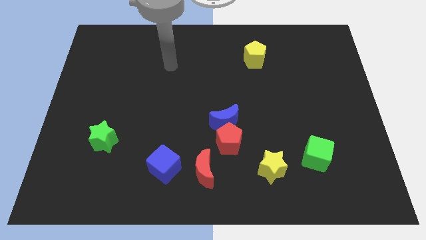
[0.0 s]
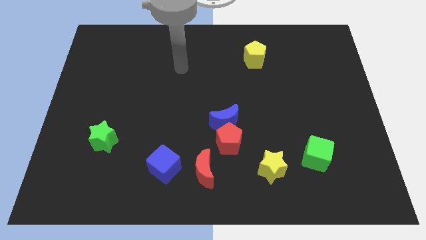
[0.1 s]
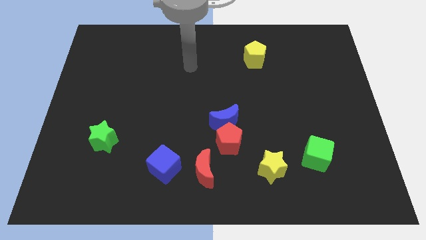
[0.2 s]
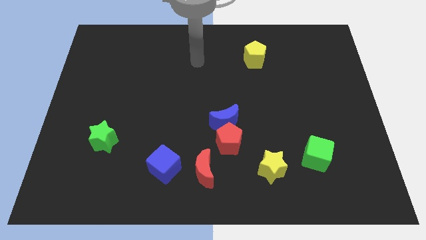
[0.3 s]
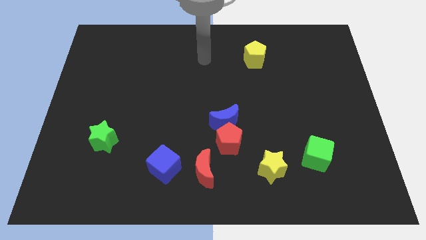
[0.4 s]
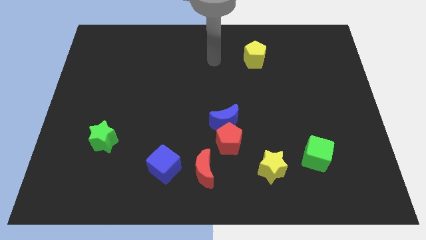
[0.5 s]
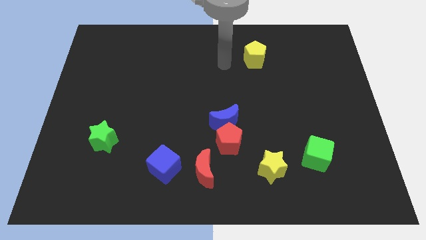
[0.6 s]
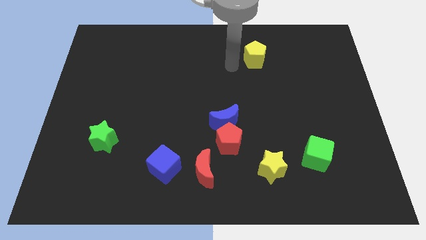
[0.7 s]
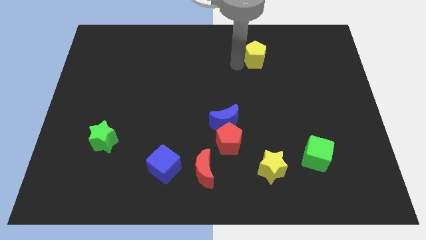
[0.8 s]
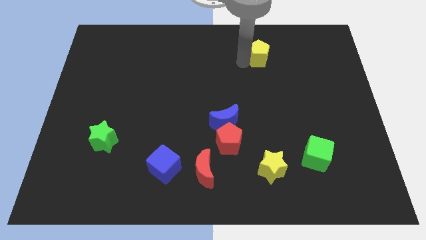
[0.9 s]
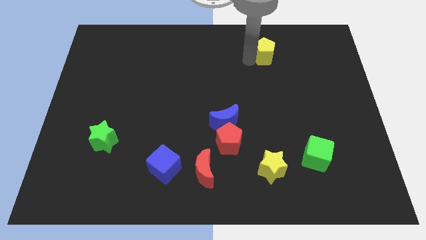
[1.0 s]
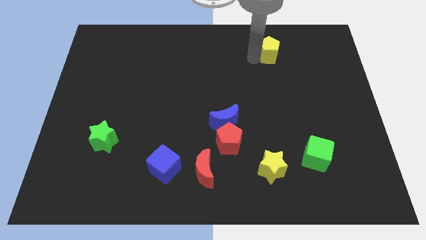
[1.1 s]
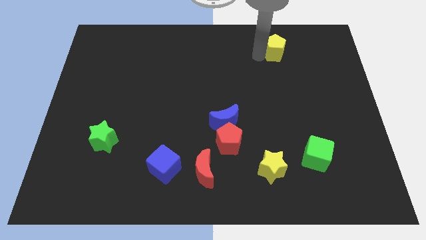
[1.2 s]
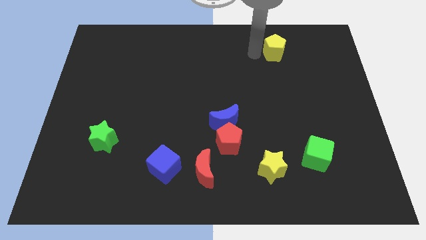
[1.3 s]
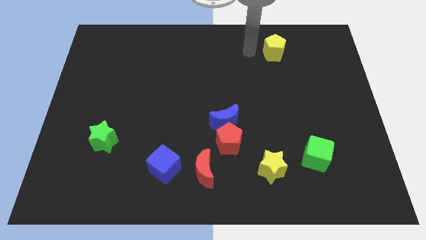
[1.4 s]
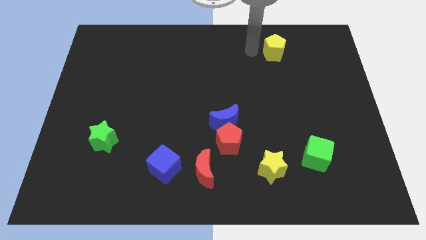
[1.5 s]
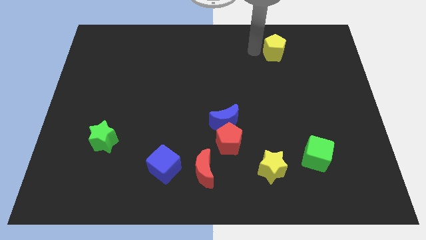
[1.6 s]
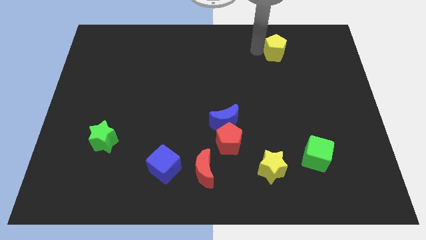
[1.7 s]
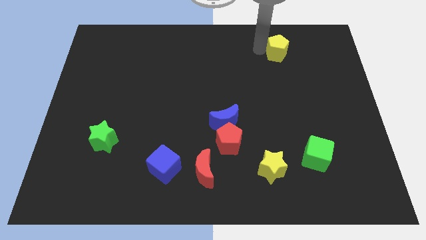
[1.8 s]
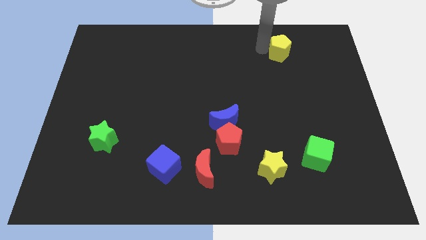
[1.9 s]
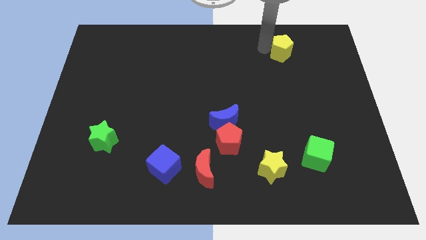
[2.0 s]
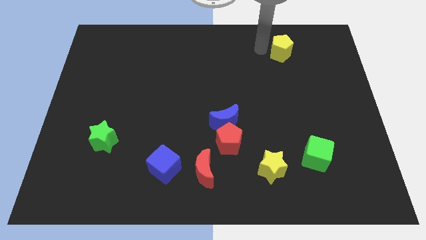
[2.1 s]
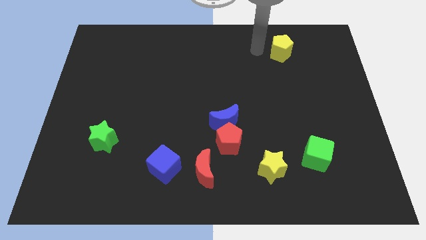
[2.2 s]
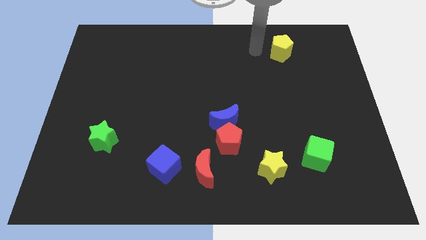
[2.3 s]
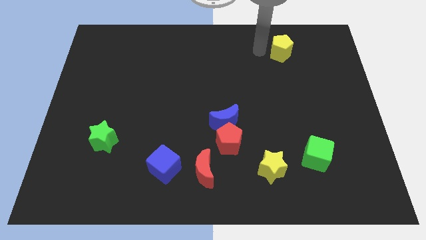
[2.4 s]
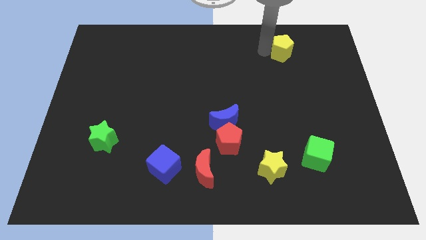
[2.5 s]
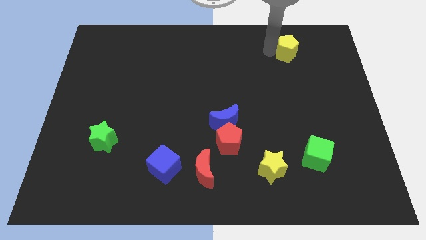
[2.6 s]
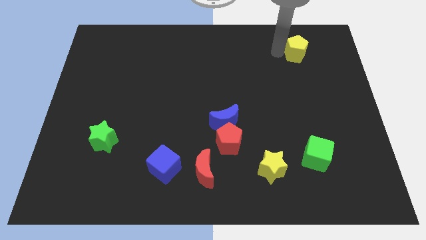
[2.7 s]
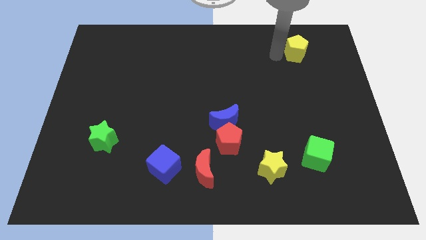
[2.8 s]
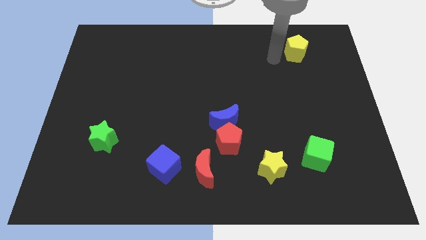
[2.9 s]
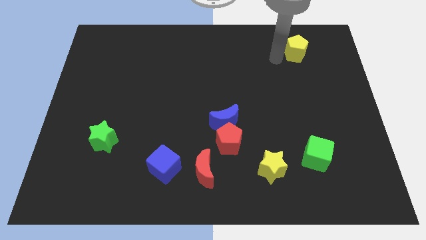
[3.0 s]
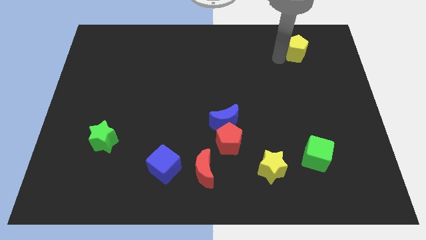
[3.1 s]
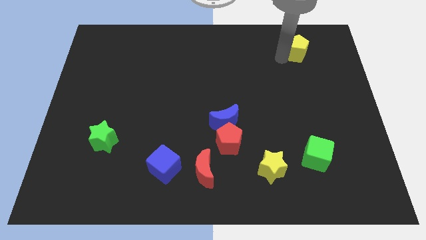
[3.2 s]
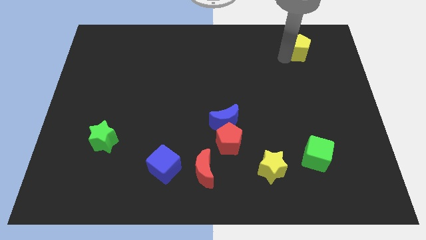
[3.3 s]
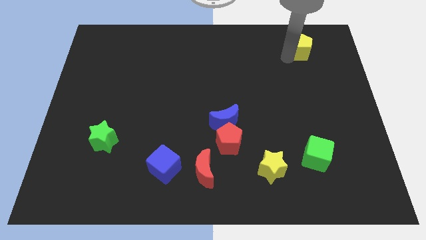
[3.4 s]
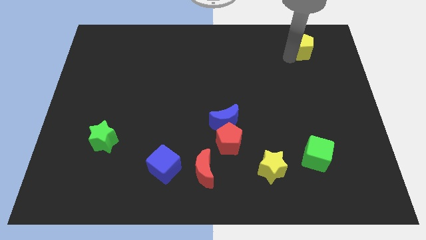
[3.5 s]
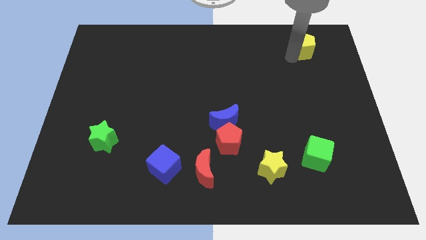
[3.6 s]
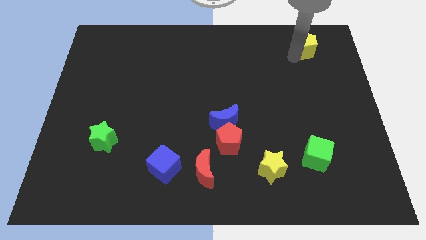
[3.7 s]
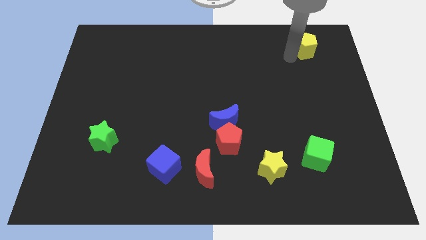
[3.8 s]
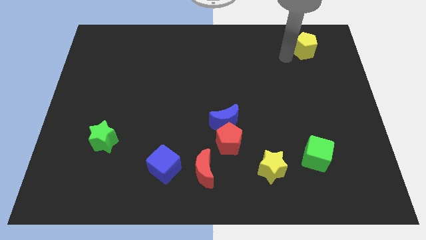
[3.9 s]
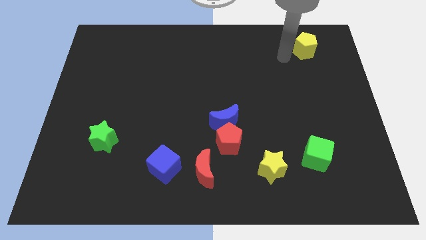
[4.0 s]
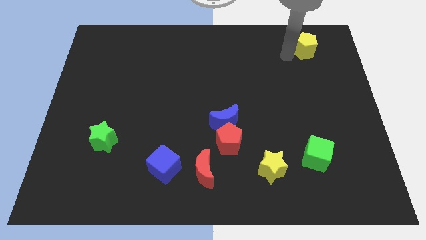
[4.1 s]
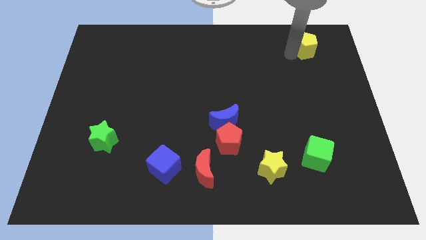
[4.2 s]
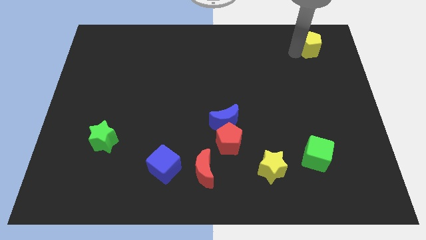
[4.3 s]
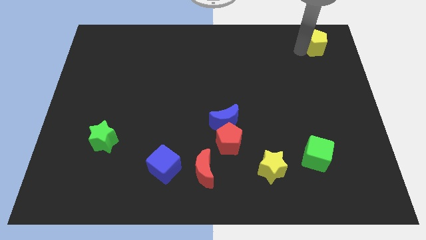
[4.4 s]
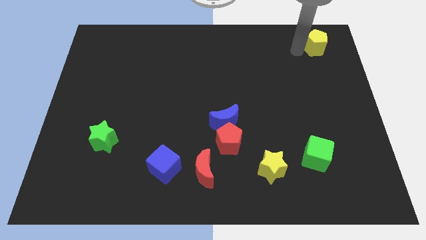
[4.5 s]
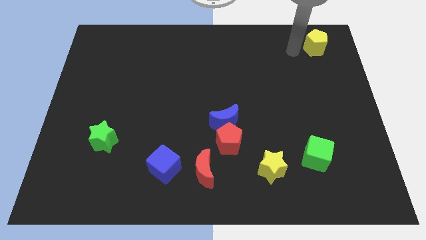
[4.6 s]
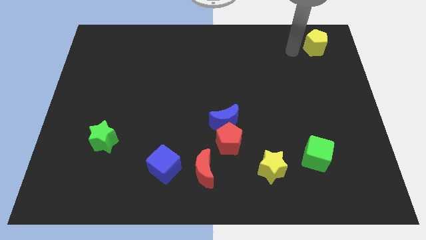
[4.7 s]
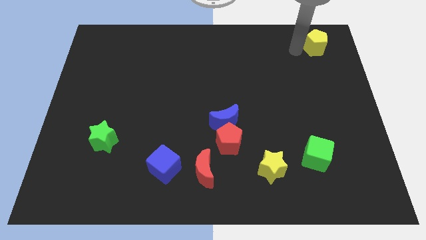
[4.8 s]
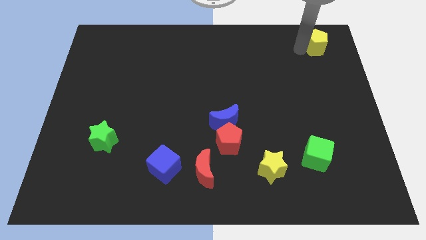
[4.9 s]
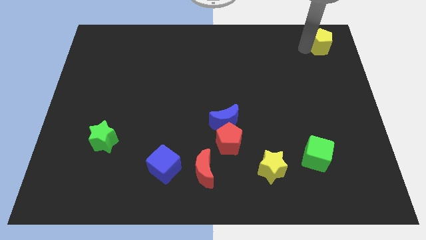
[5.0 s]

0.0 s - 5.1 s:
move the yellow pentagon to the top right corner

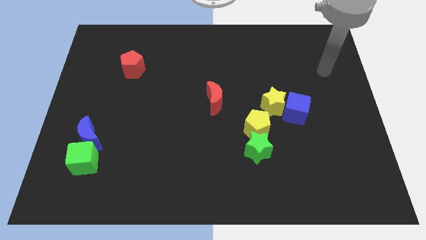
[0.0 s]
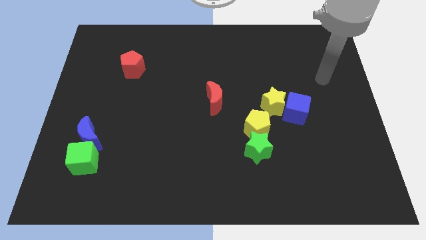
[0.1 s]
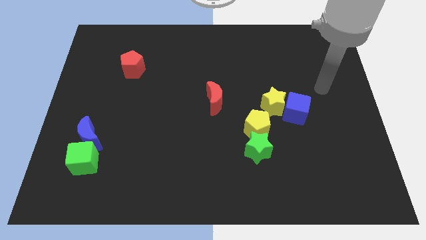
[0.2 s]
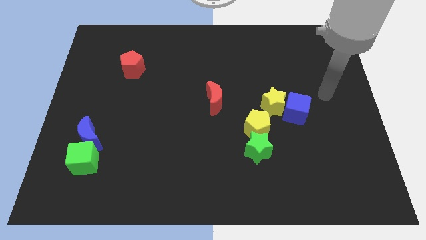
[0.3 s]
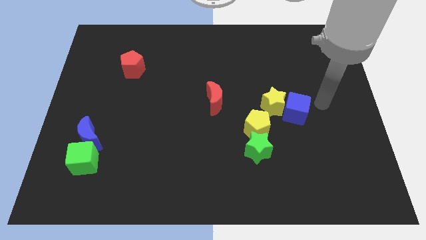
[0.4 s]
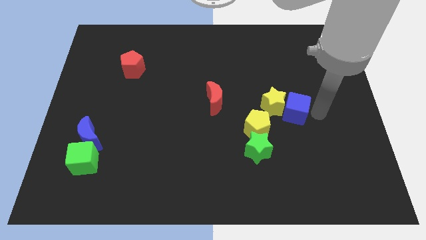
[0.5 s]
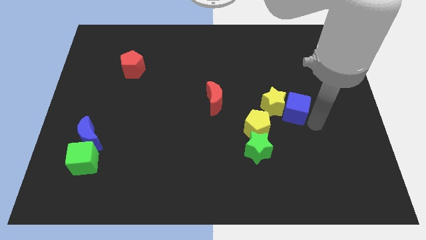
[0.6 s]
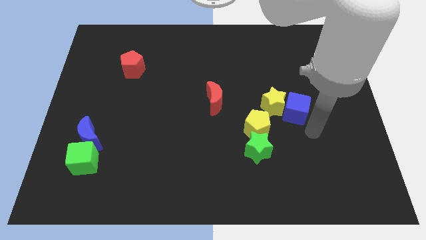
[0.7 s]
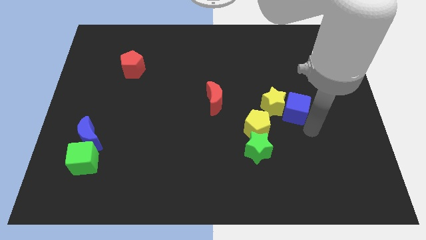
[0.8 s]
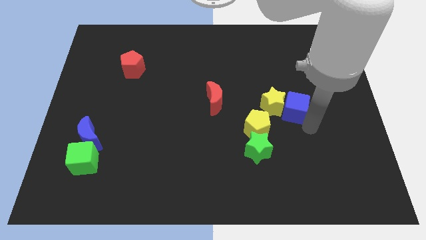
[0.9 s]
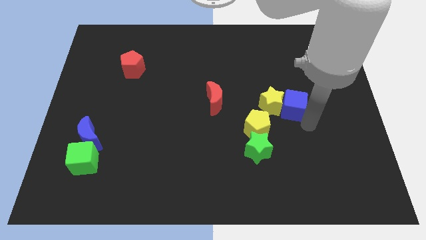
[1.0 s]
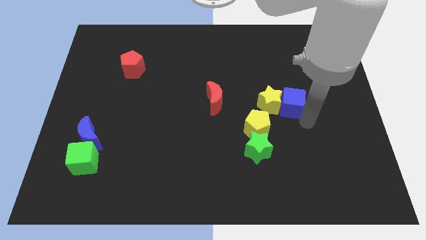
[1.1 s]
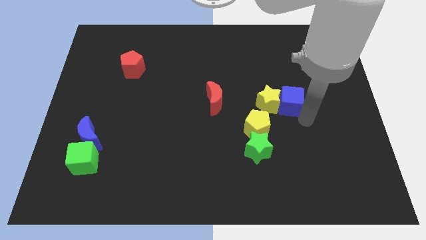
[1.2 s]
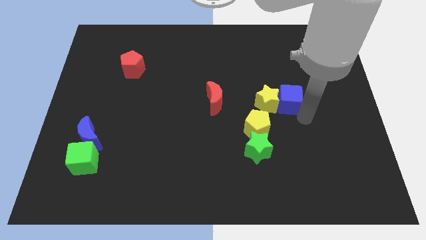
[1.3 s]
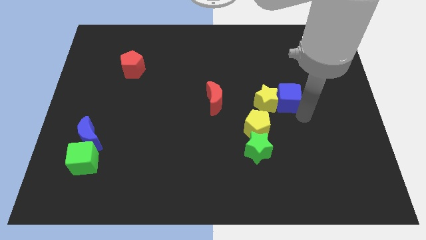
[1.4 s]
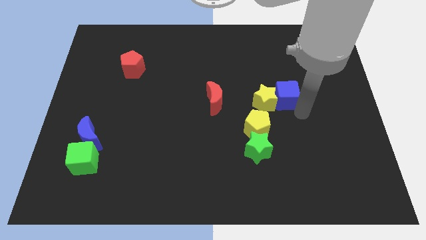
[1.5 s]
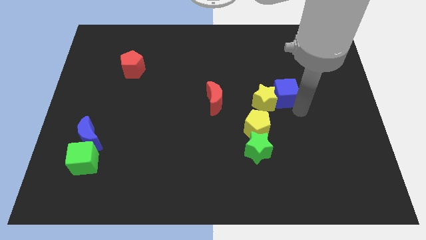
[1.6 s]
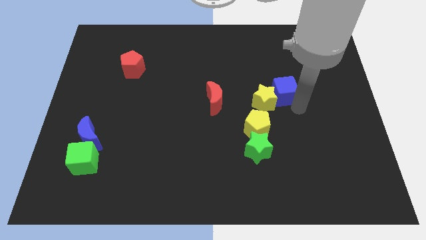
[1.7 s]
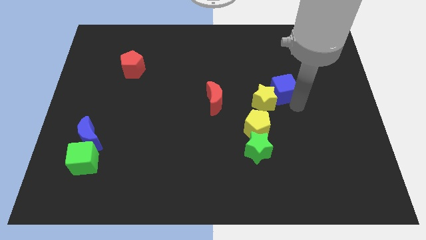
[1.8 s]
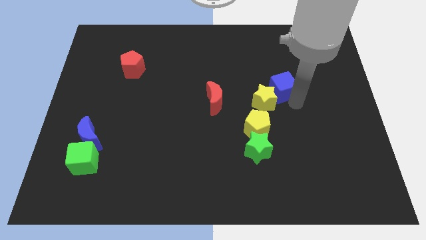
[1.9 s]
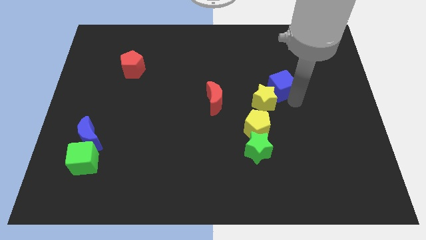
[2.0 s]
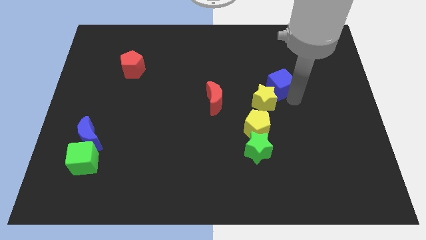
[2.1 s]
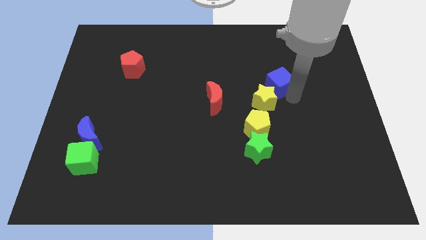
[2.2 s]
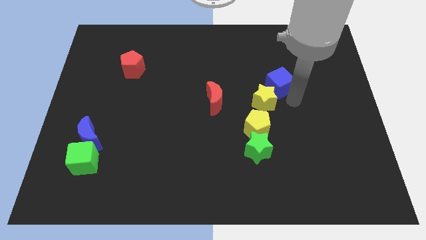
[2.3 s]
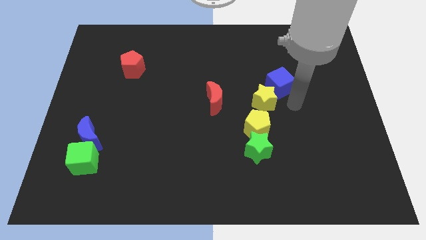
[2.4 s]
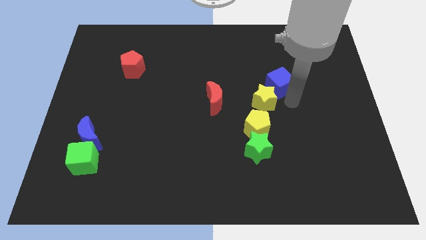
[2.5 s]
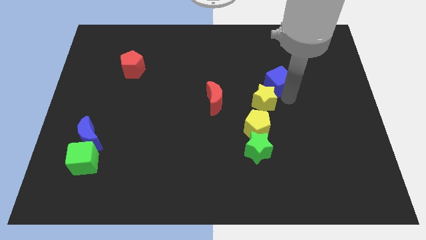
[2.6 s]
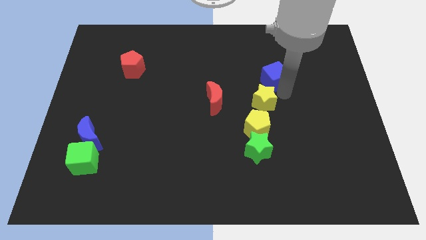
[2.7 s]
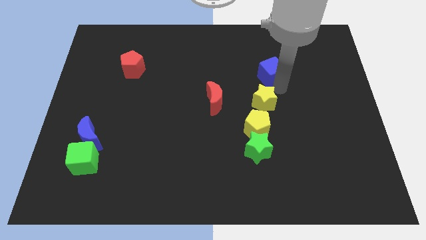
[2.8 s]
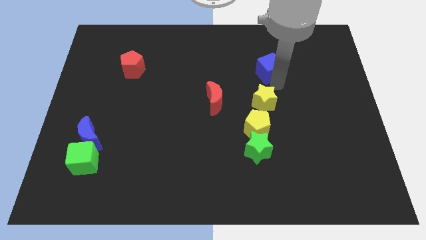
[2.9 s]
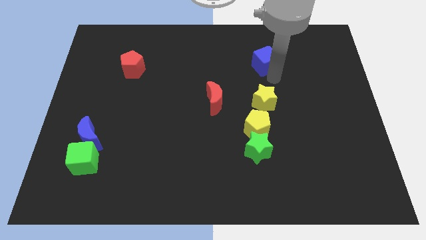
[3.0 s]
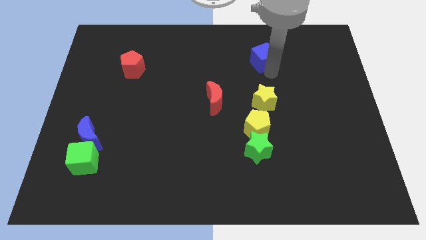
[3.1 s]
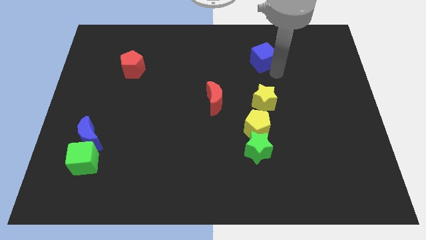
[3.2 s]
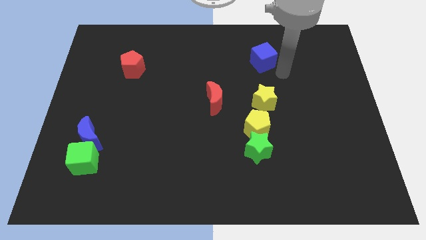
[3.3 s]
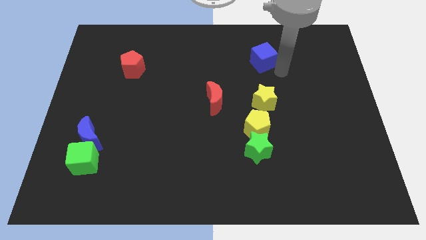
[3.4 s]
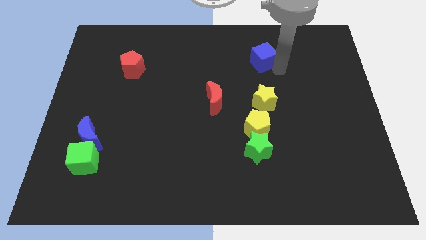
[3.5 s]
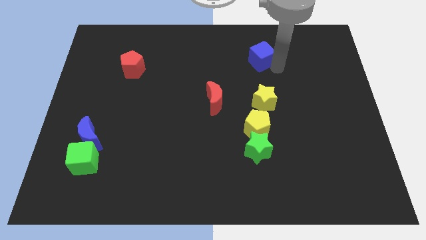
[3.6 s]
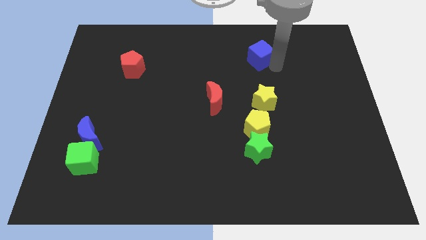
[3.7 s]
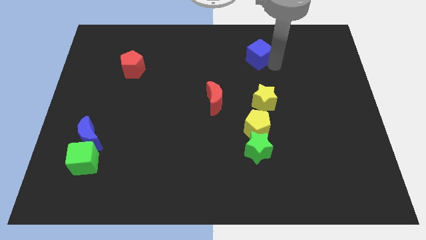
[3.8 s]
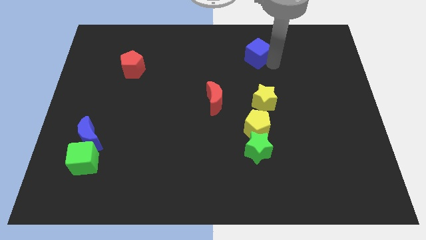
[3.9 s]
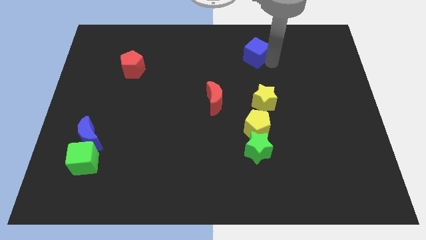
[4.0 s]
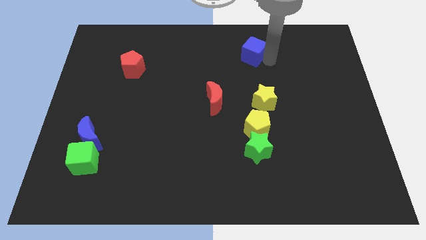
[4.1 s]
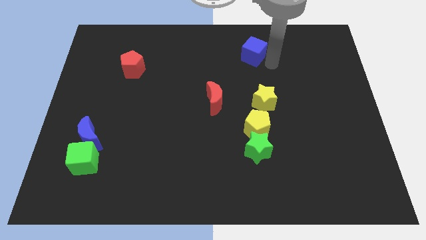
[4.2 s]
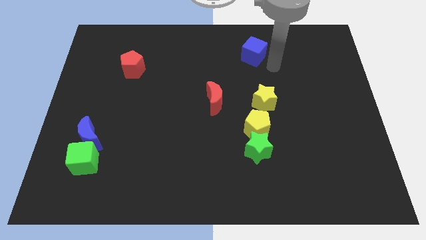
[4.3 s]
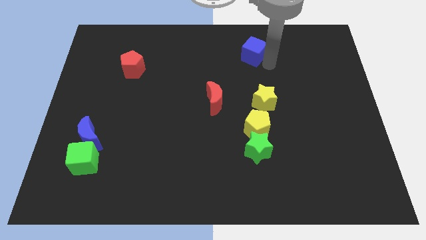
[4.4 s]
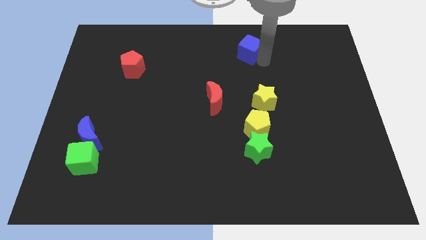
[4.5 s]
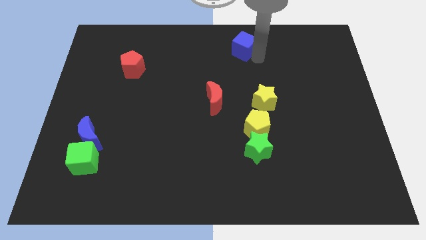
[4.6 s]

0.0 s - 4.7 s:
put the blue cube to the towards your base
